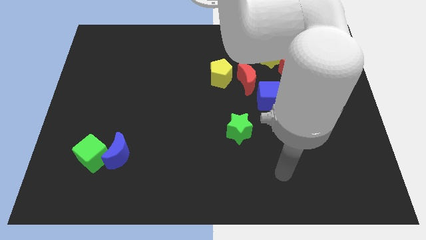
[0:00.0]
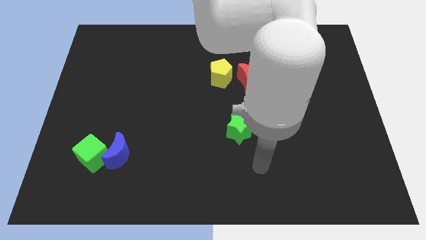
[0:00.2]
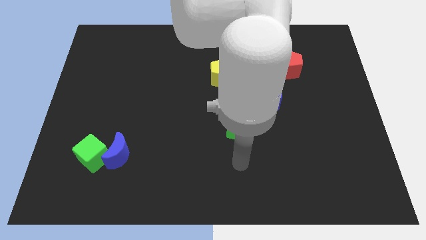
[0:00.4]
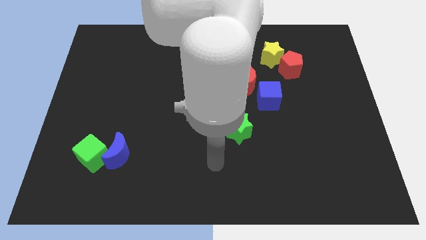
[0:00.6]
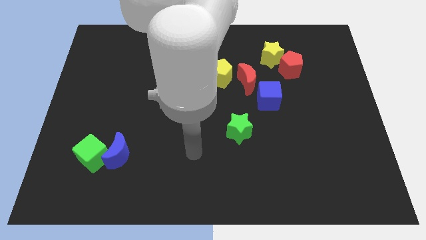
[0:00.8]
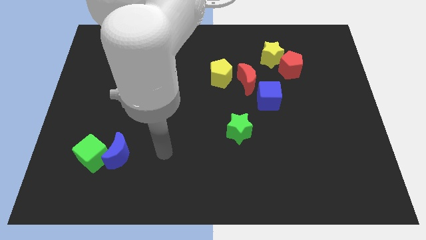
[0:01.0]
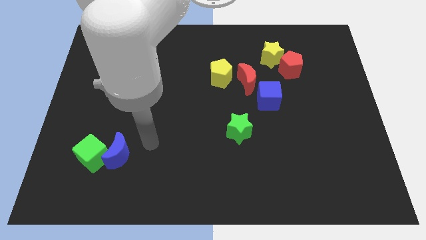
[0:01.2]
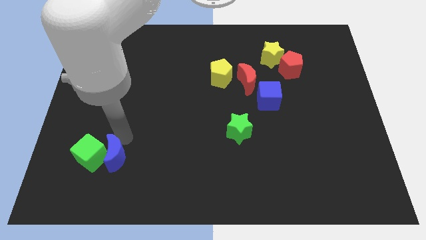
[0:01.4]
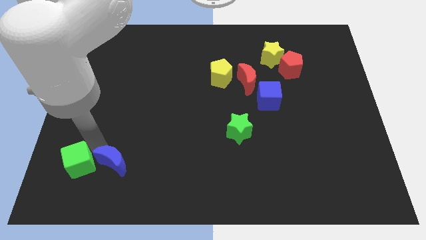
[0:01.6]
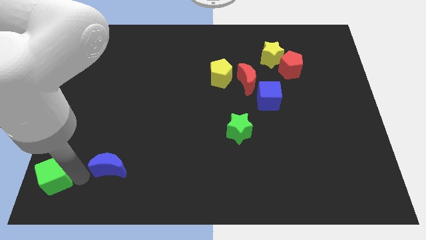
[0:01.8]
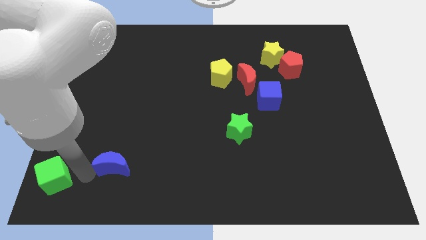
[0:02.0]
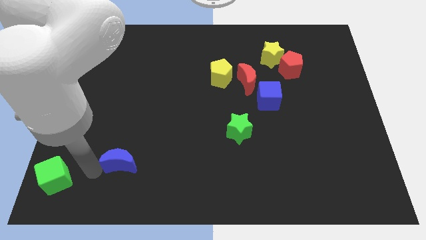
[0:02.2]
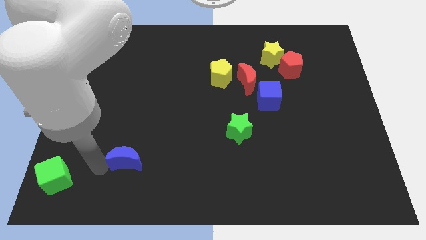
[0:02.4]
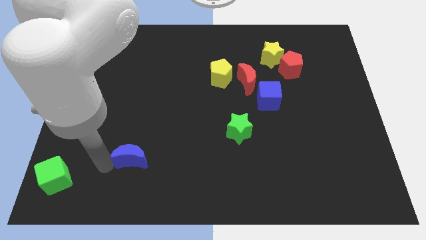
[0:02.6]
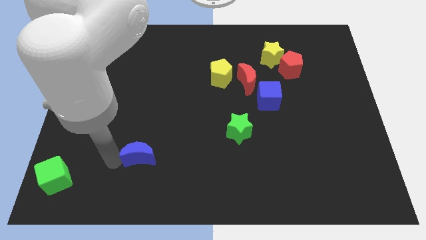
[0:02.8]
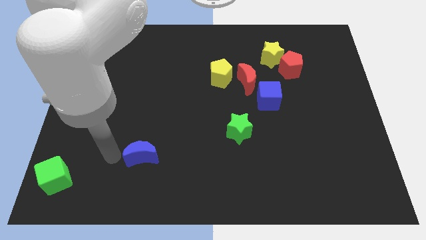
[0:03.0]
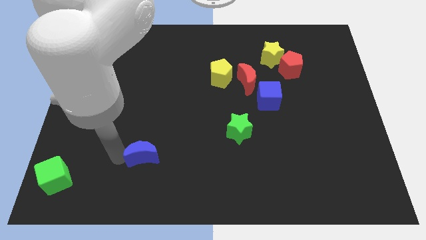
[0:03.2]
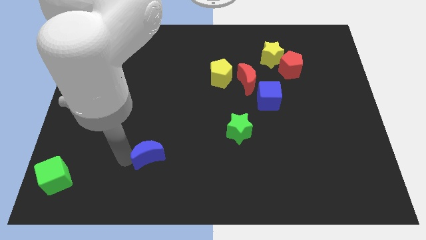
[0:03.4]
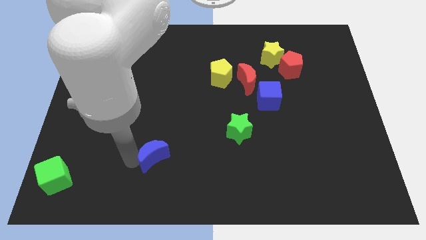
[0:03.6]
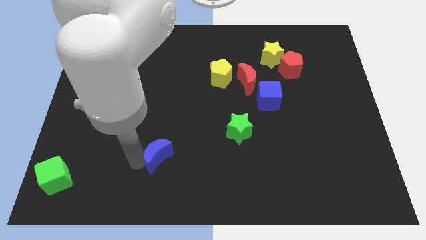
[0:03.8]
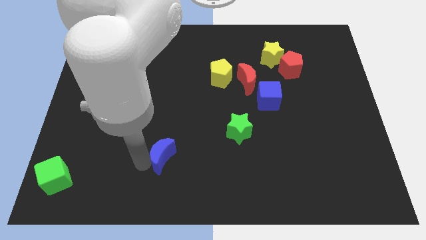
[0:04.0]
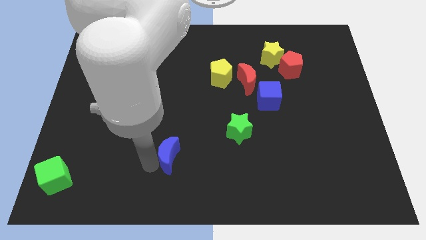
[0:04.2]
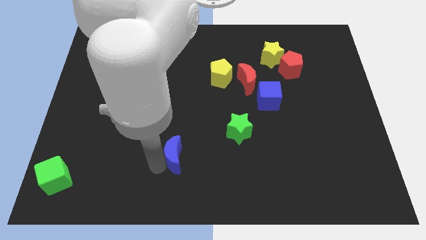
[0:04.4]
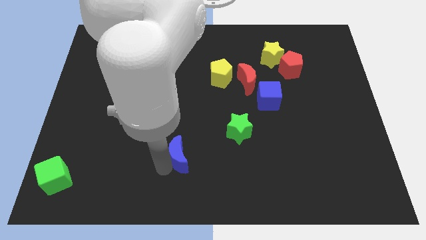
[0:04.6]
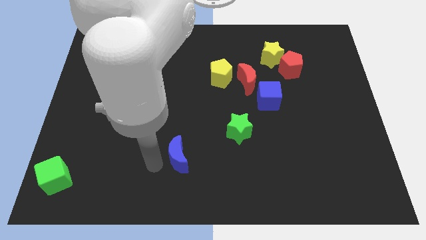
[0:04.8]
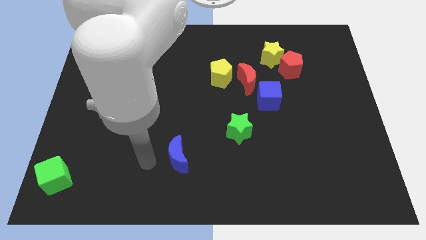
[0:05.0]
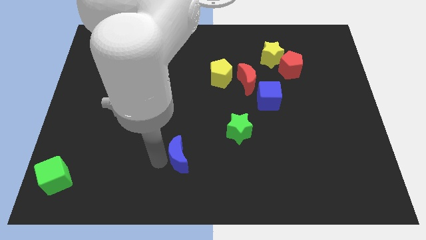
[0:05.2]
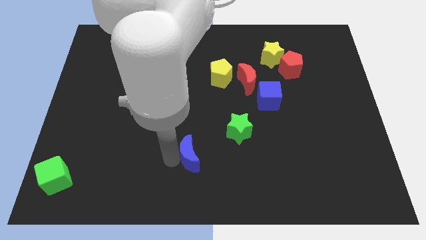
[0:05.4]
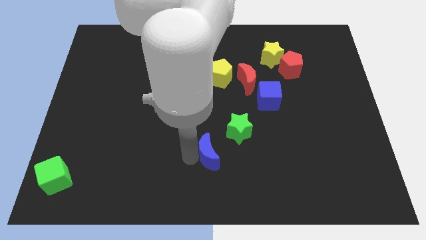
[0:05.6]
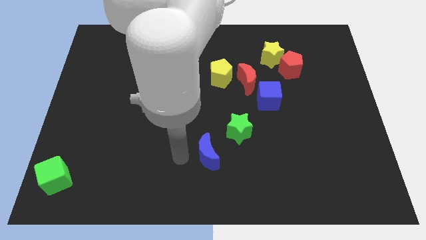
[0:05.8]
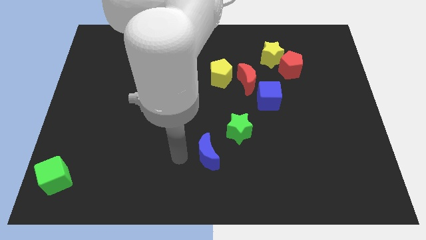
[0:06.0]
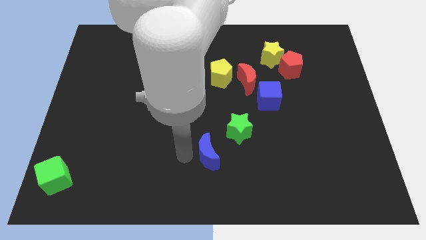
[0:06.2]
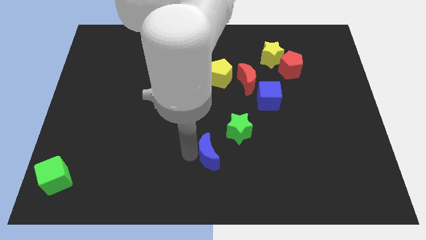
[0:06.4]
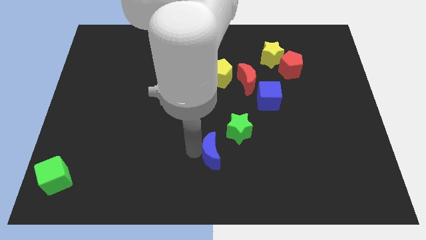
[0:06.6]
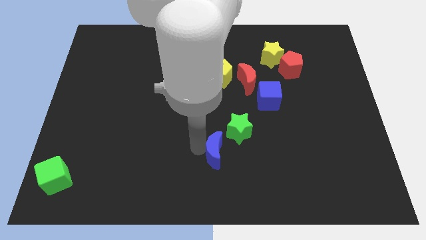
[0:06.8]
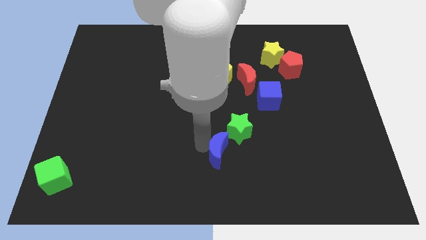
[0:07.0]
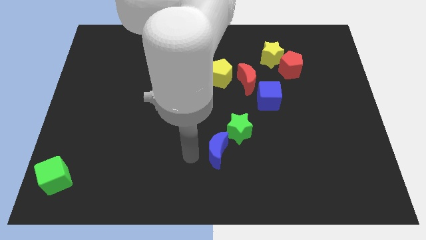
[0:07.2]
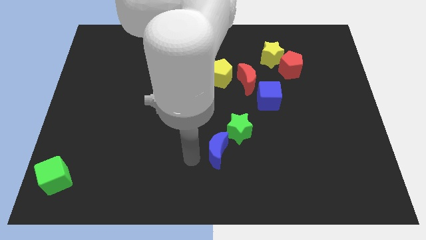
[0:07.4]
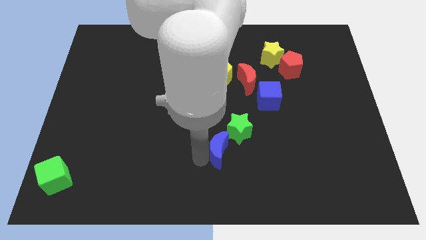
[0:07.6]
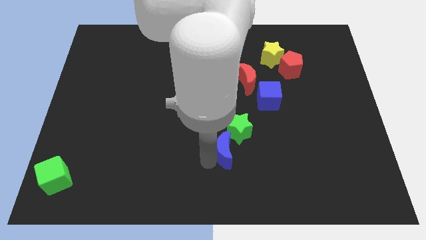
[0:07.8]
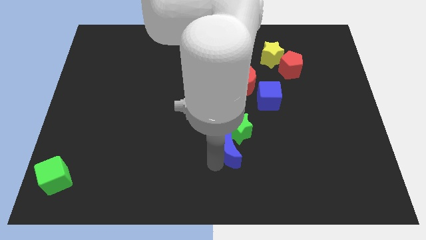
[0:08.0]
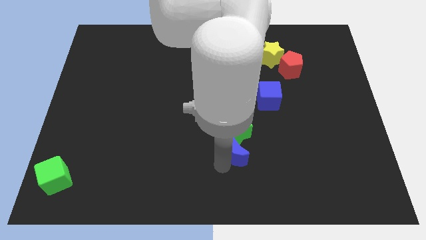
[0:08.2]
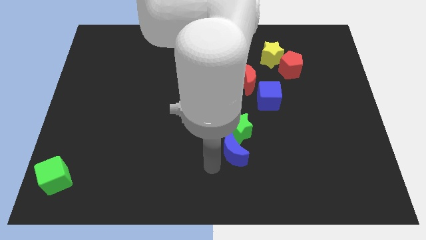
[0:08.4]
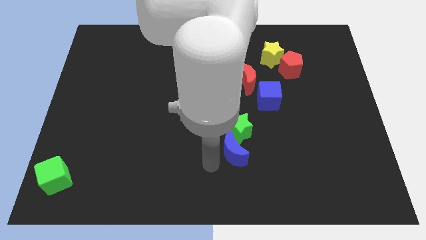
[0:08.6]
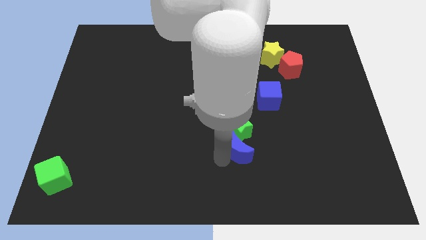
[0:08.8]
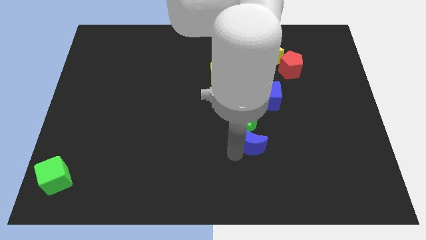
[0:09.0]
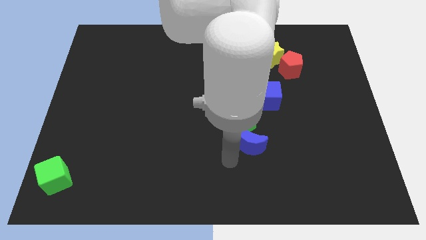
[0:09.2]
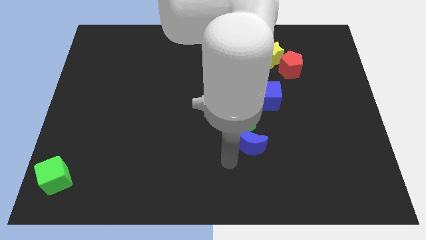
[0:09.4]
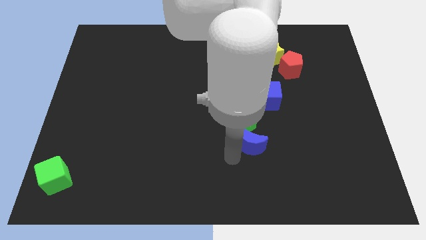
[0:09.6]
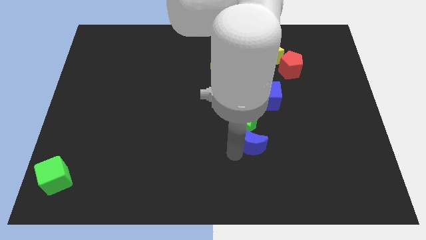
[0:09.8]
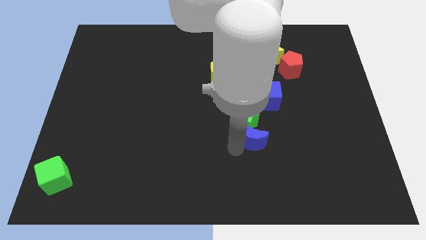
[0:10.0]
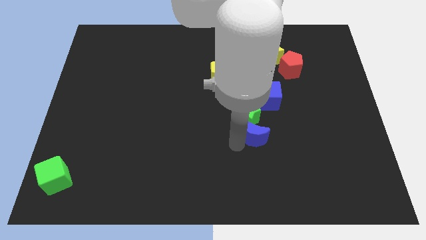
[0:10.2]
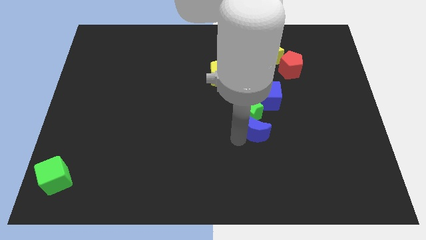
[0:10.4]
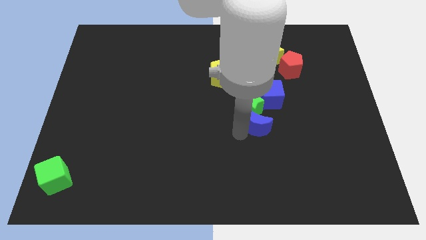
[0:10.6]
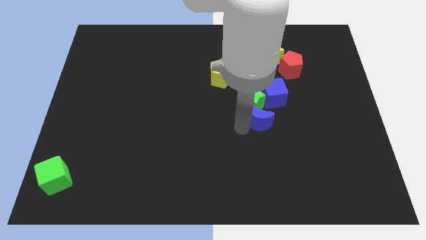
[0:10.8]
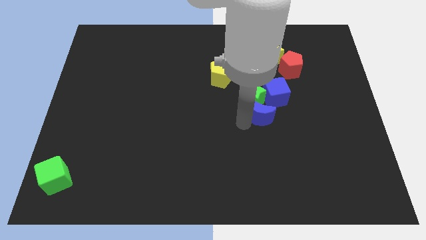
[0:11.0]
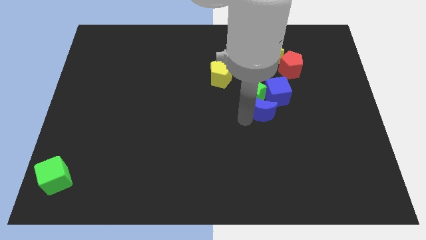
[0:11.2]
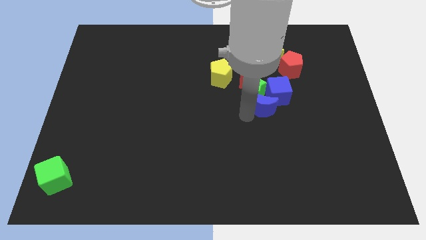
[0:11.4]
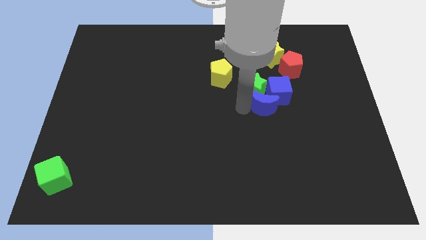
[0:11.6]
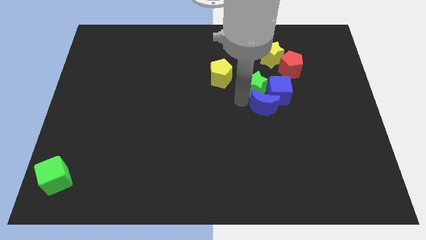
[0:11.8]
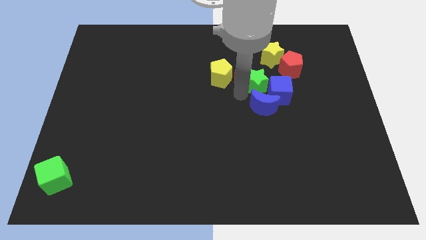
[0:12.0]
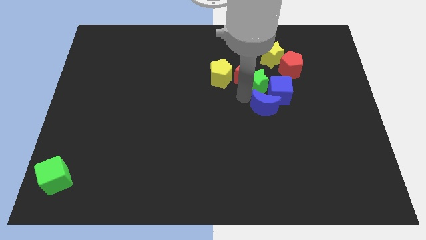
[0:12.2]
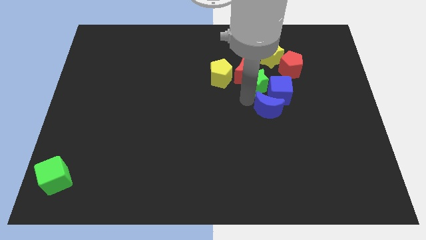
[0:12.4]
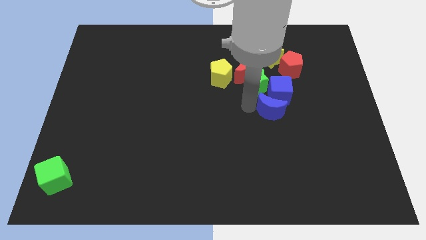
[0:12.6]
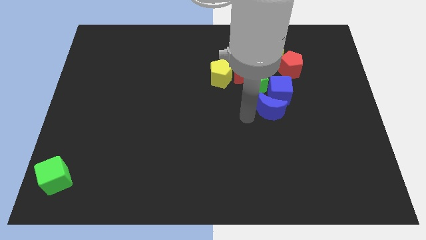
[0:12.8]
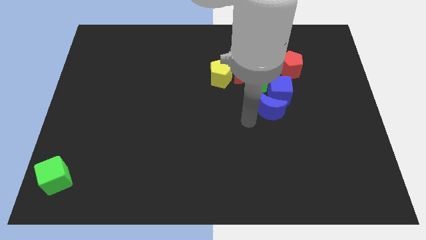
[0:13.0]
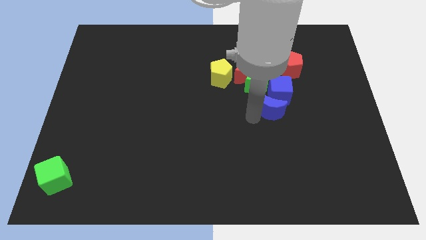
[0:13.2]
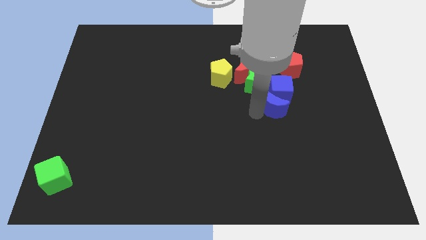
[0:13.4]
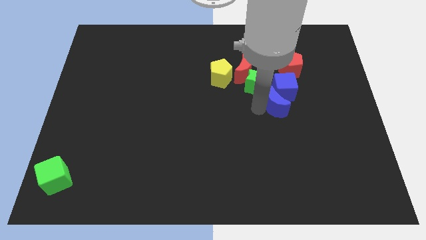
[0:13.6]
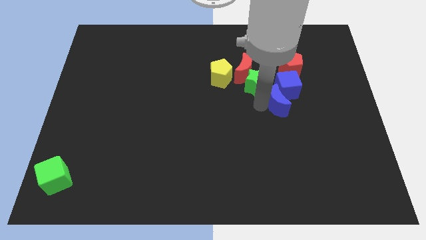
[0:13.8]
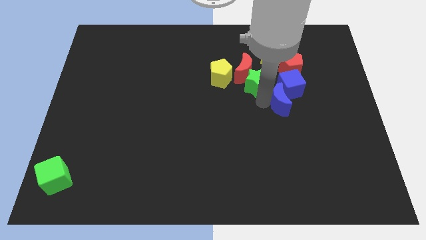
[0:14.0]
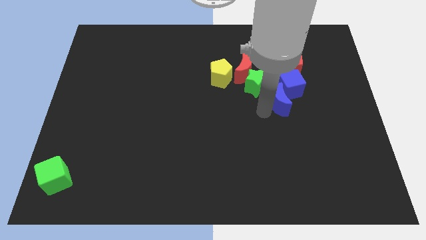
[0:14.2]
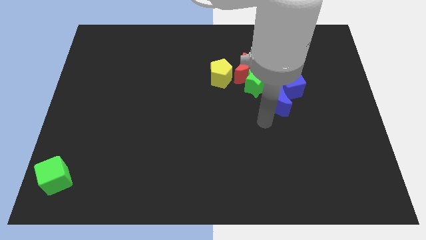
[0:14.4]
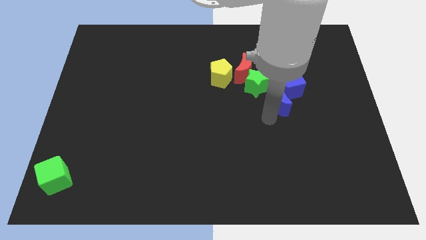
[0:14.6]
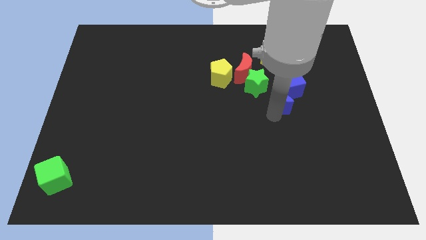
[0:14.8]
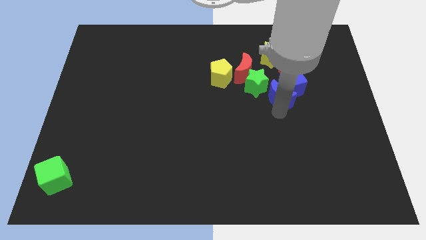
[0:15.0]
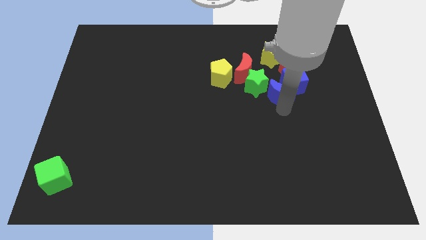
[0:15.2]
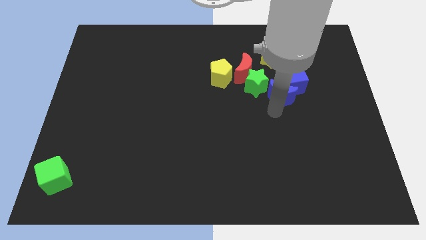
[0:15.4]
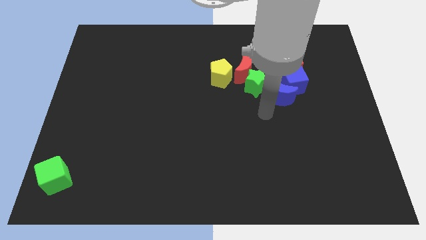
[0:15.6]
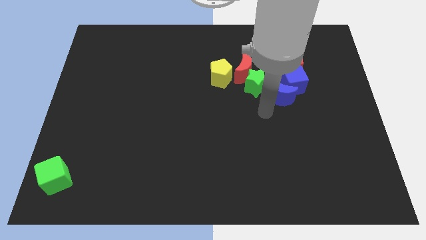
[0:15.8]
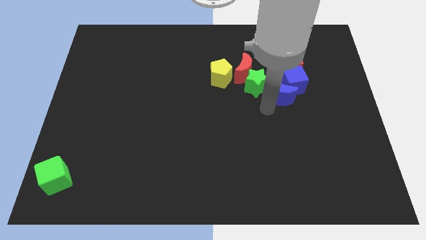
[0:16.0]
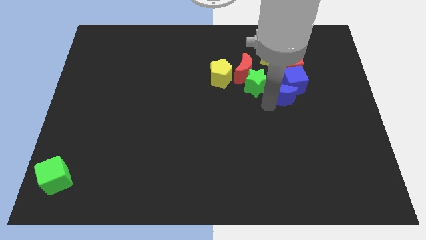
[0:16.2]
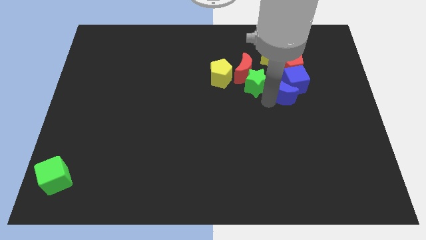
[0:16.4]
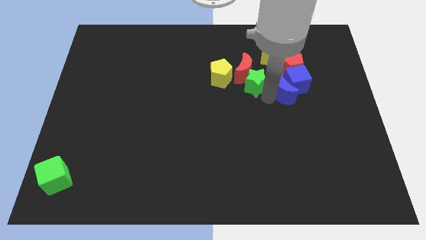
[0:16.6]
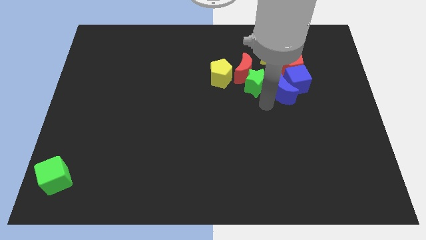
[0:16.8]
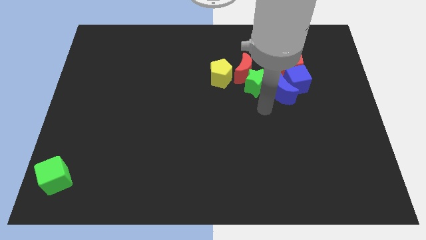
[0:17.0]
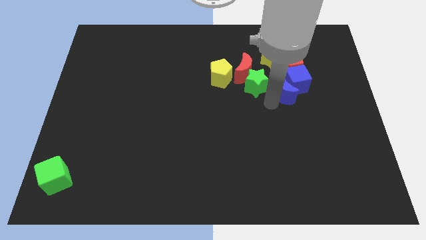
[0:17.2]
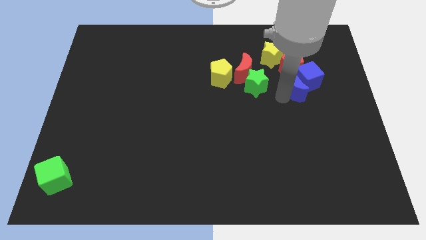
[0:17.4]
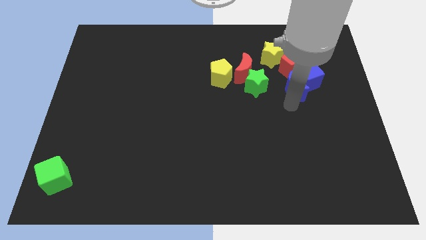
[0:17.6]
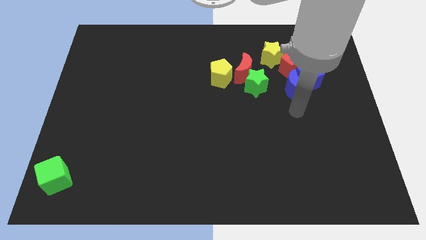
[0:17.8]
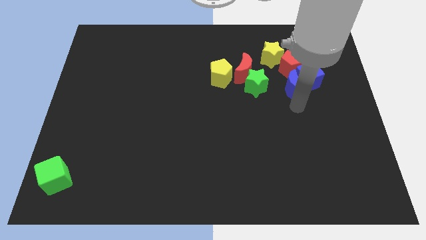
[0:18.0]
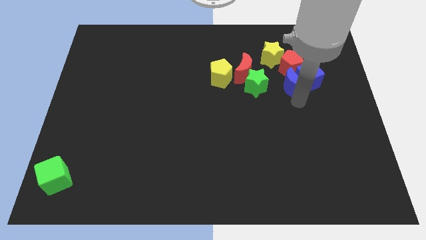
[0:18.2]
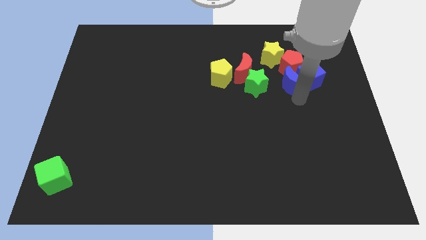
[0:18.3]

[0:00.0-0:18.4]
slide the blue moon towards the red pentagon
